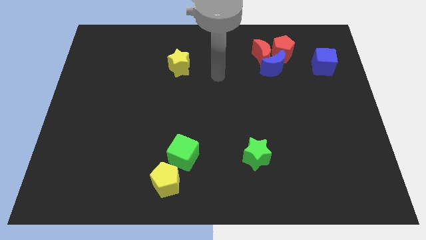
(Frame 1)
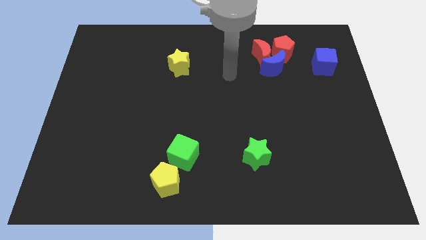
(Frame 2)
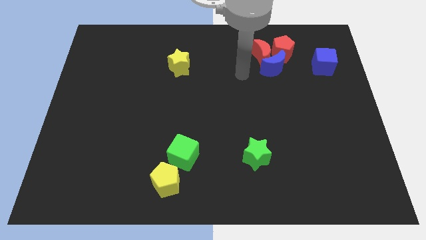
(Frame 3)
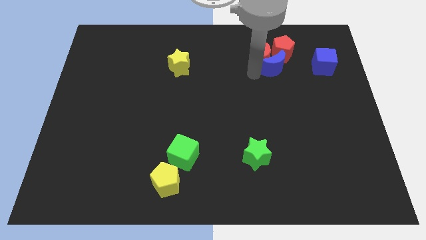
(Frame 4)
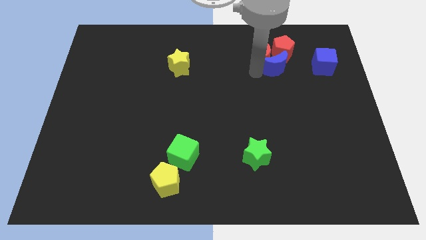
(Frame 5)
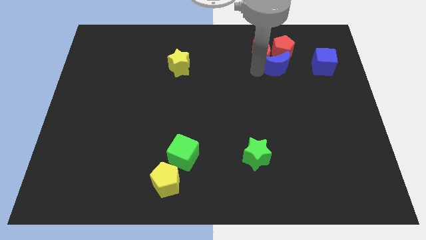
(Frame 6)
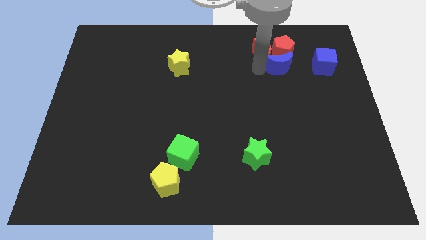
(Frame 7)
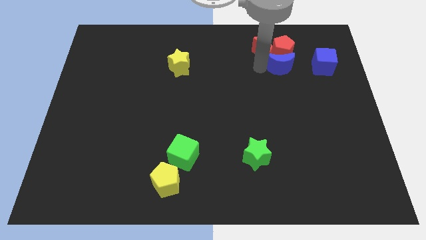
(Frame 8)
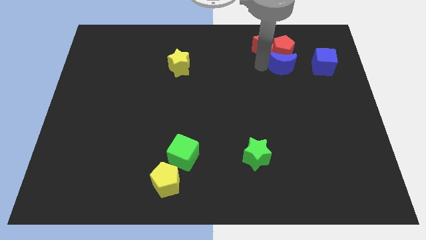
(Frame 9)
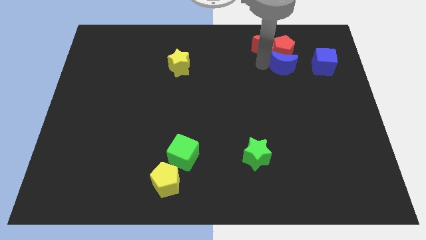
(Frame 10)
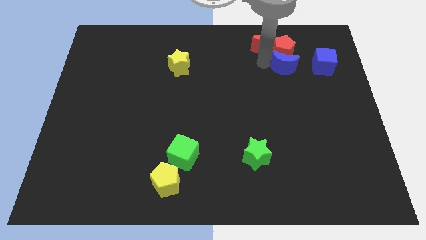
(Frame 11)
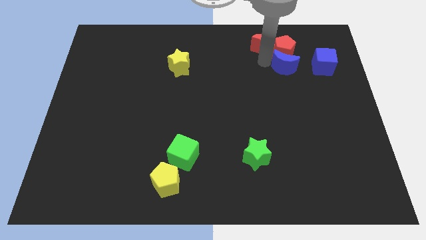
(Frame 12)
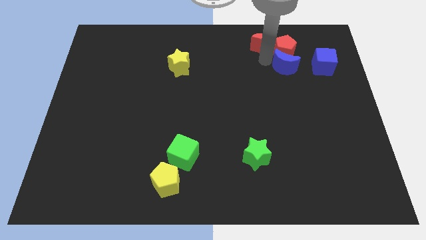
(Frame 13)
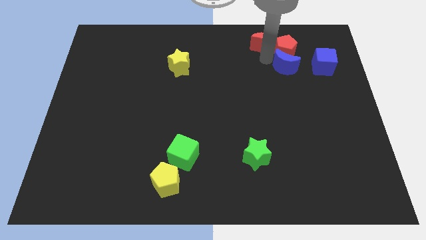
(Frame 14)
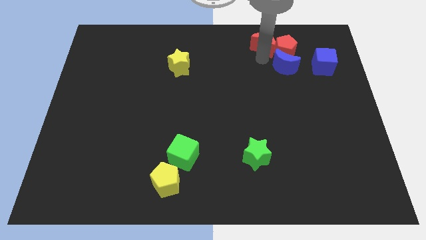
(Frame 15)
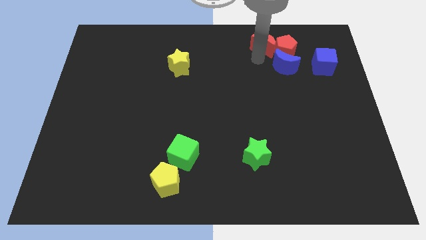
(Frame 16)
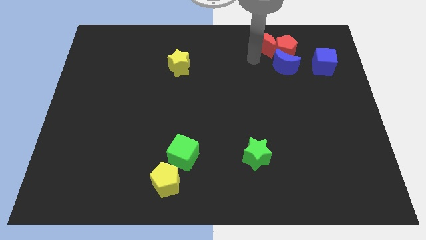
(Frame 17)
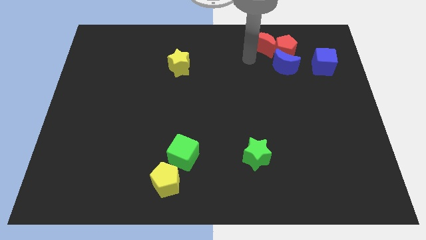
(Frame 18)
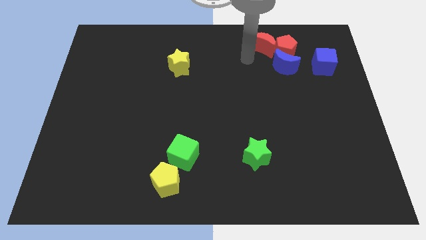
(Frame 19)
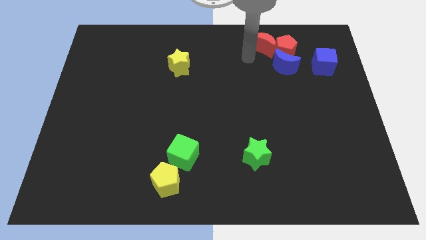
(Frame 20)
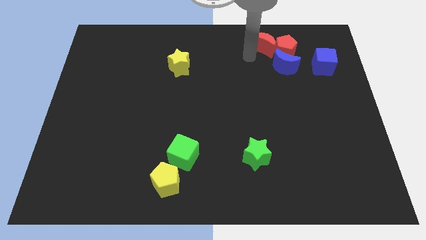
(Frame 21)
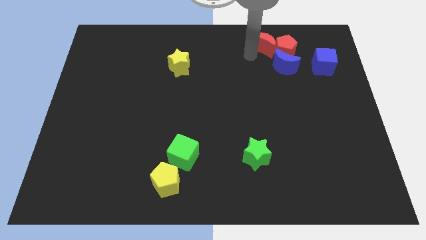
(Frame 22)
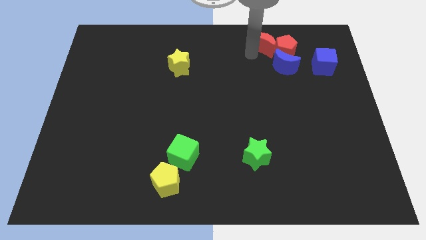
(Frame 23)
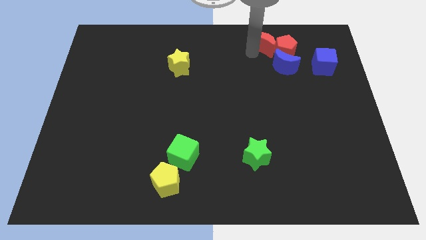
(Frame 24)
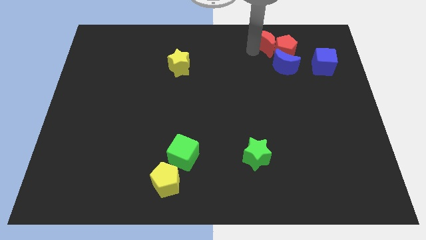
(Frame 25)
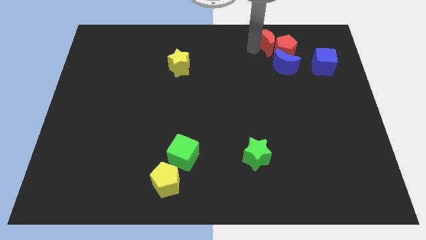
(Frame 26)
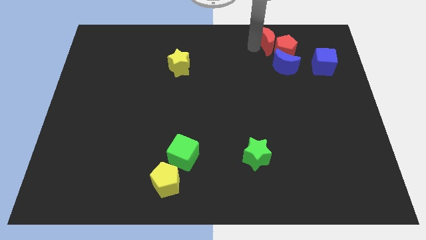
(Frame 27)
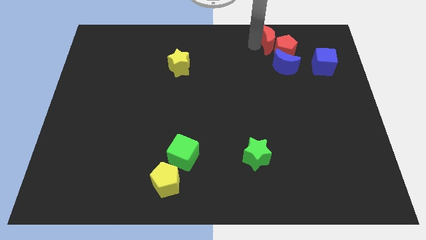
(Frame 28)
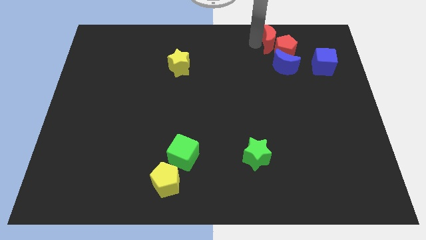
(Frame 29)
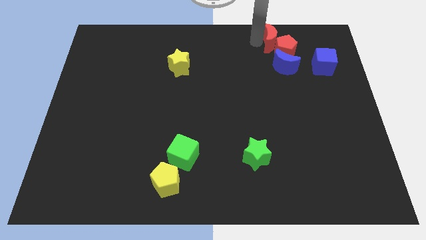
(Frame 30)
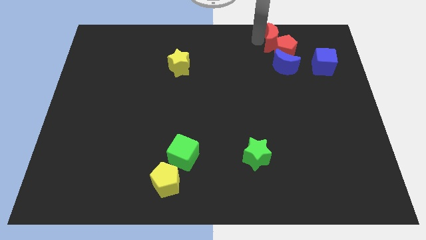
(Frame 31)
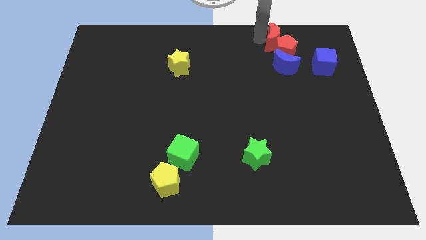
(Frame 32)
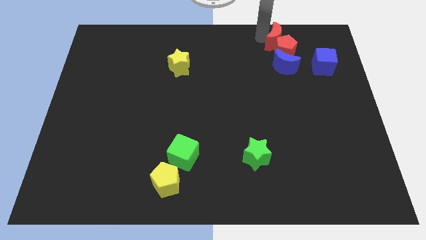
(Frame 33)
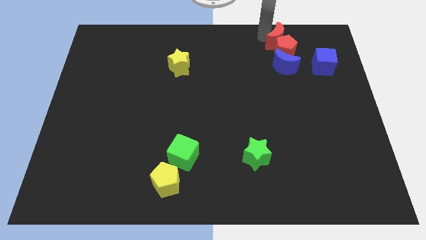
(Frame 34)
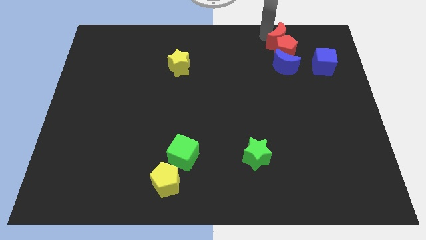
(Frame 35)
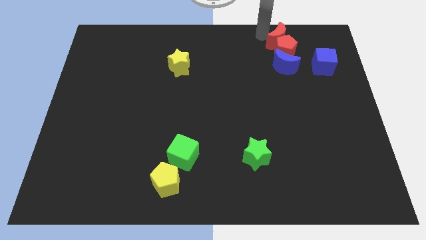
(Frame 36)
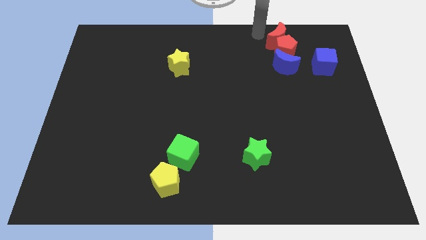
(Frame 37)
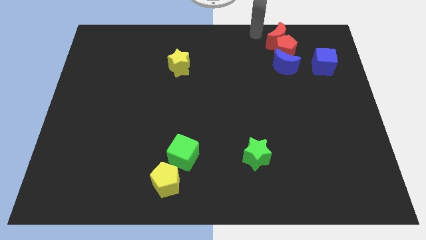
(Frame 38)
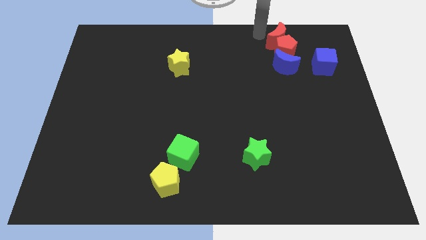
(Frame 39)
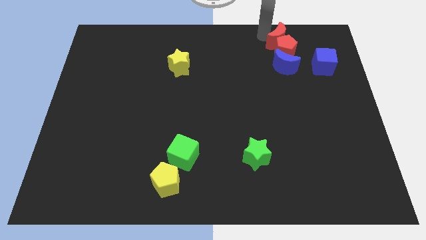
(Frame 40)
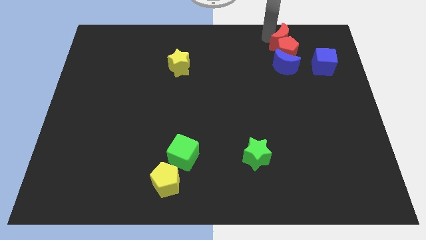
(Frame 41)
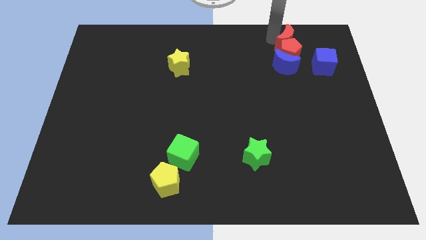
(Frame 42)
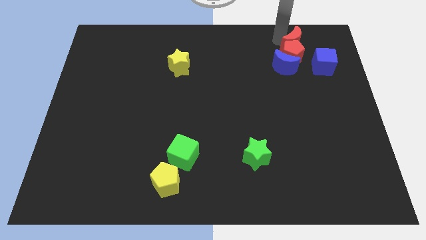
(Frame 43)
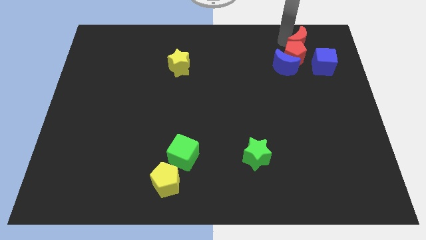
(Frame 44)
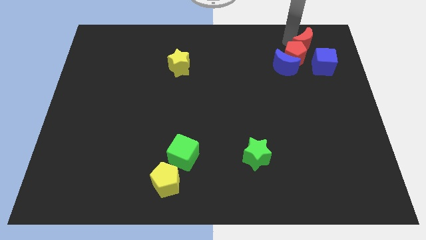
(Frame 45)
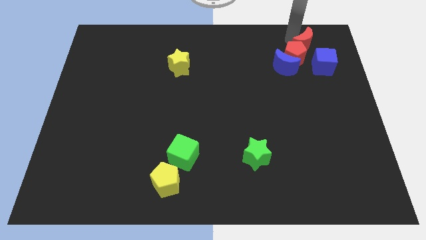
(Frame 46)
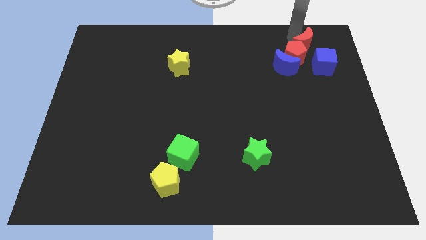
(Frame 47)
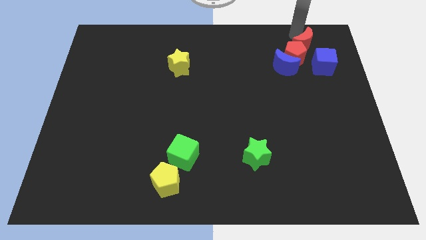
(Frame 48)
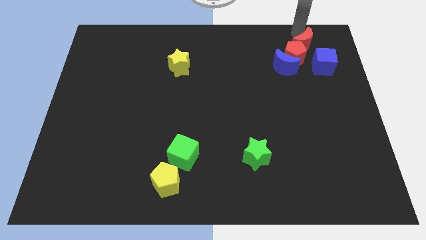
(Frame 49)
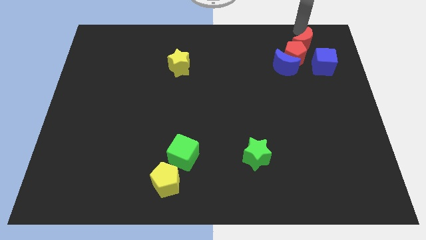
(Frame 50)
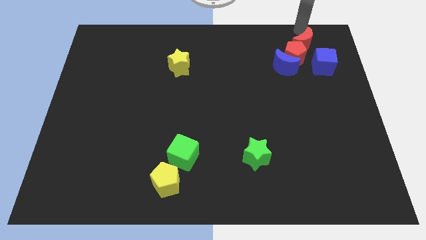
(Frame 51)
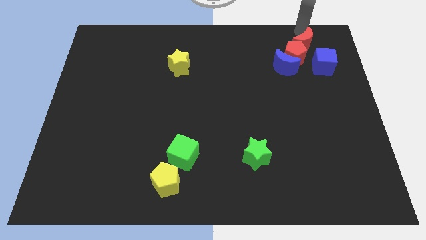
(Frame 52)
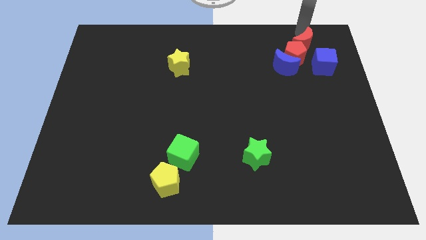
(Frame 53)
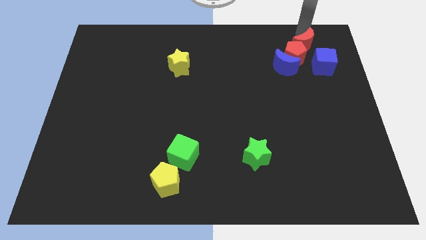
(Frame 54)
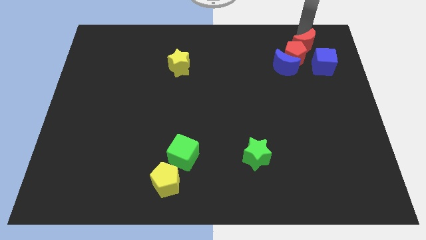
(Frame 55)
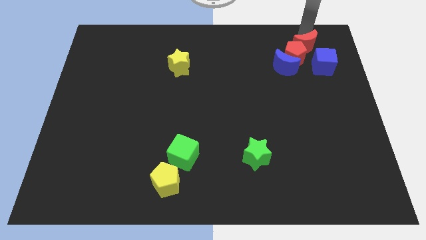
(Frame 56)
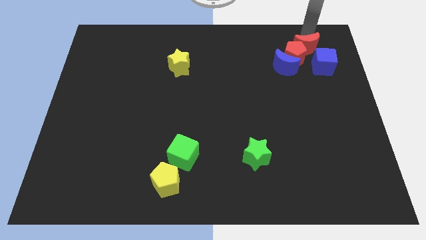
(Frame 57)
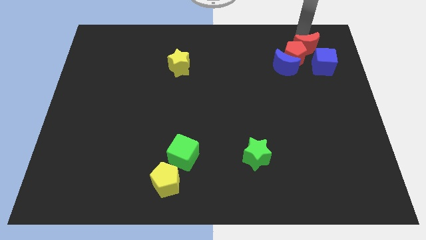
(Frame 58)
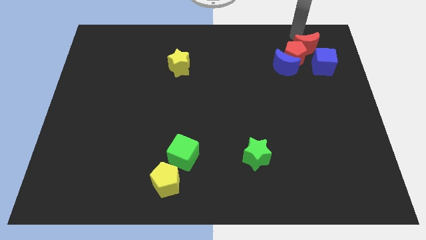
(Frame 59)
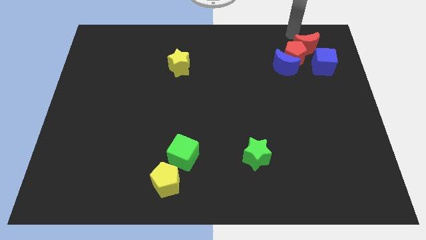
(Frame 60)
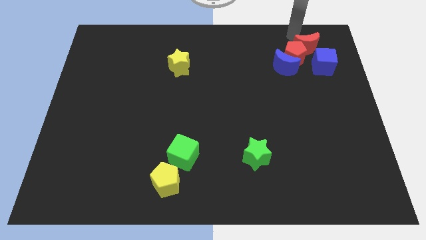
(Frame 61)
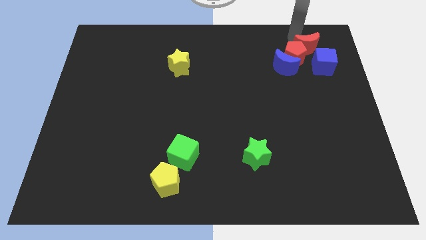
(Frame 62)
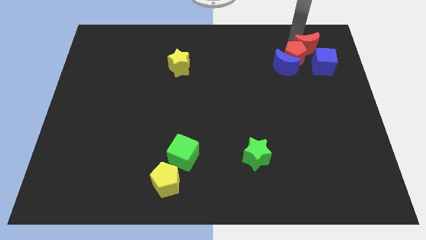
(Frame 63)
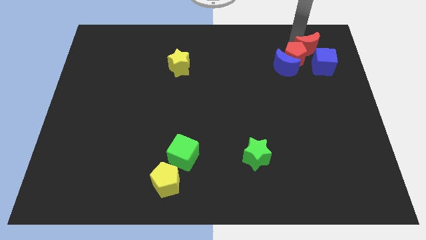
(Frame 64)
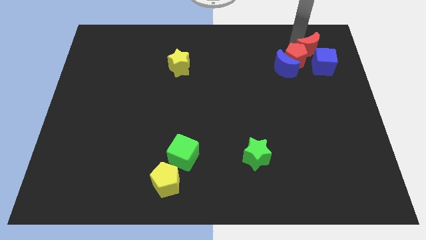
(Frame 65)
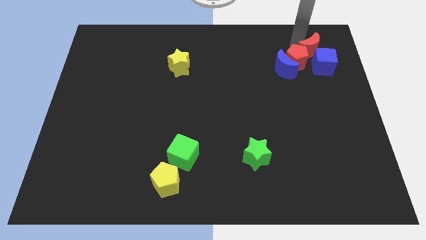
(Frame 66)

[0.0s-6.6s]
slide the red moon close to the blue cube

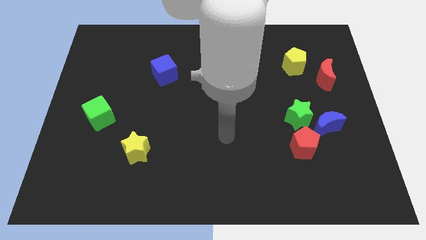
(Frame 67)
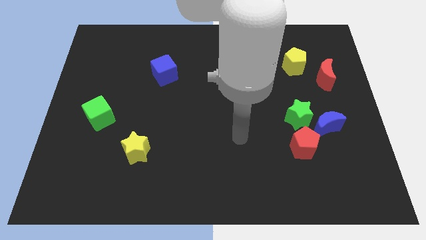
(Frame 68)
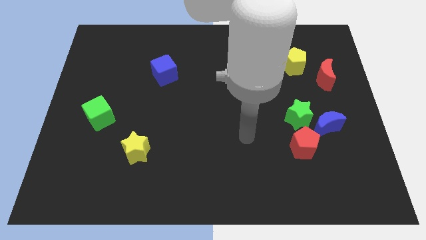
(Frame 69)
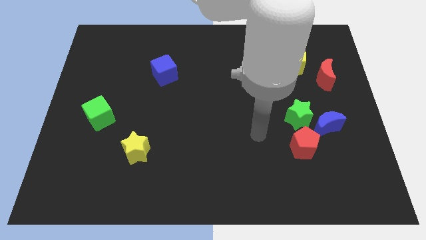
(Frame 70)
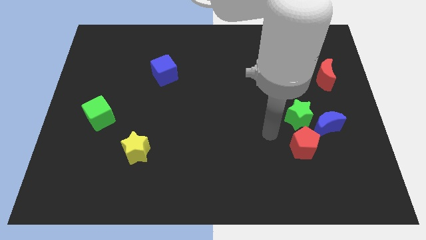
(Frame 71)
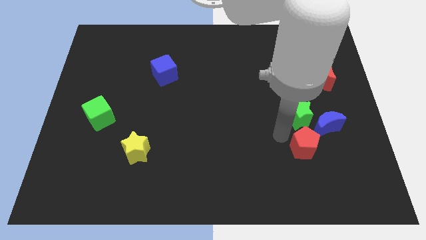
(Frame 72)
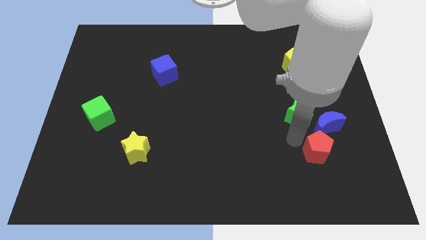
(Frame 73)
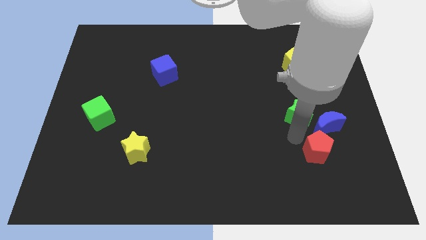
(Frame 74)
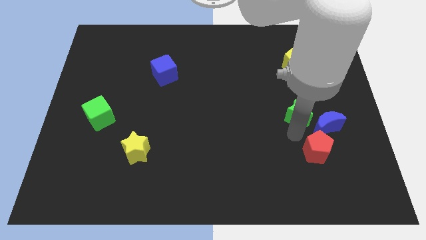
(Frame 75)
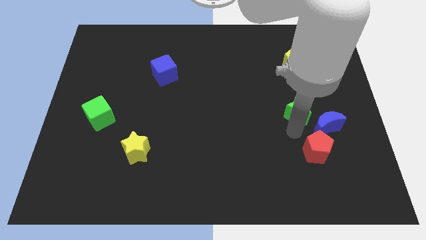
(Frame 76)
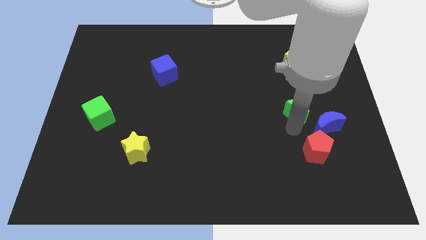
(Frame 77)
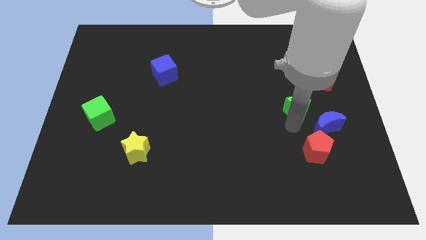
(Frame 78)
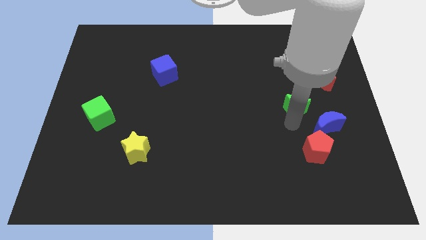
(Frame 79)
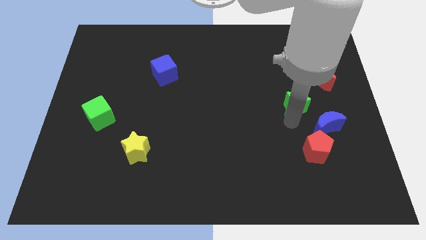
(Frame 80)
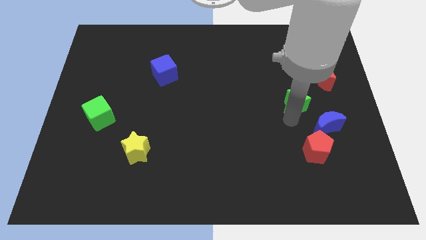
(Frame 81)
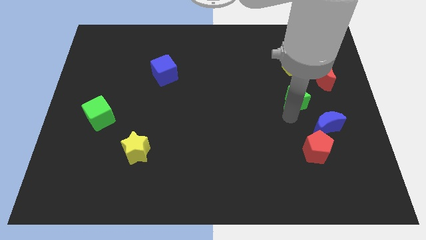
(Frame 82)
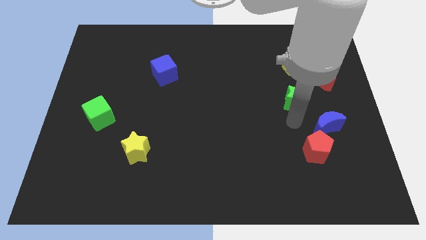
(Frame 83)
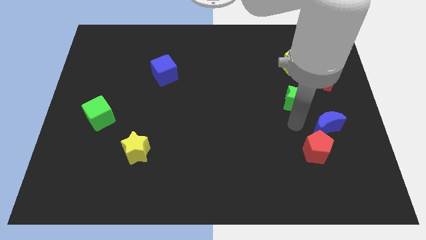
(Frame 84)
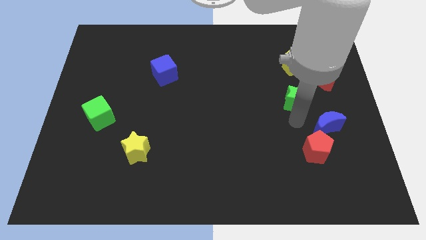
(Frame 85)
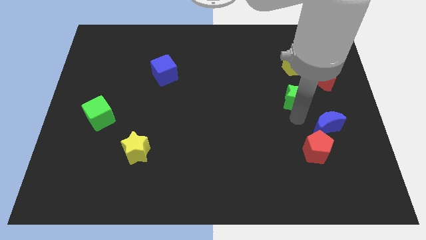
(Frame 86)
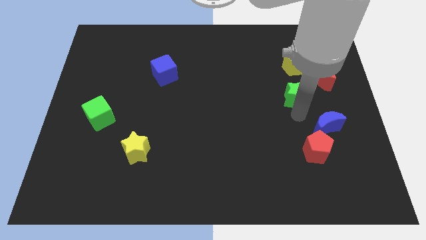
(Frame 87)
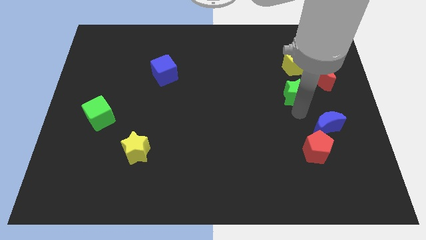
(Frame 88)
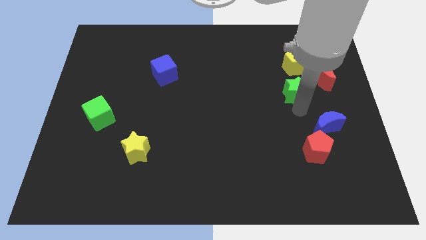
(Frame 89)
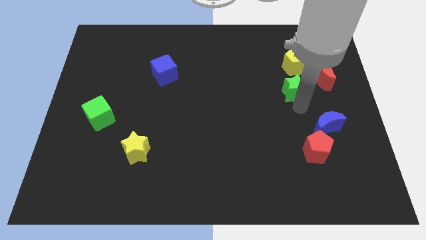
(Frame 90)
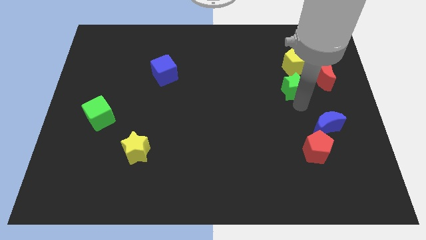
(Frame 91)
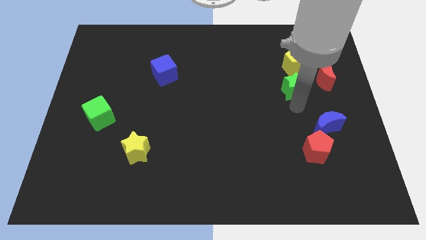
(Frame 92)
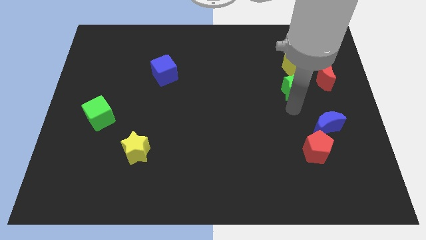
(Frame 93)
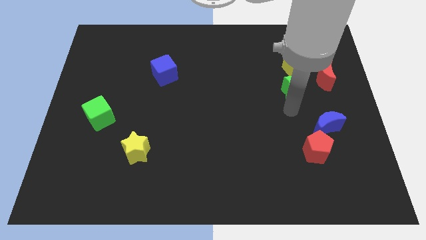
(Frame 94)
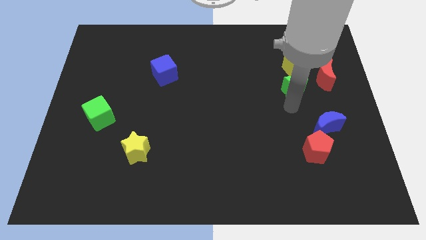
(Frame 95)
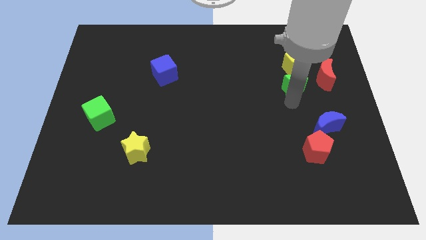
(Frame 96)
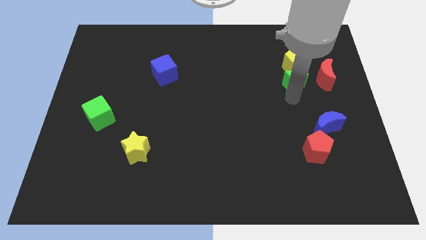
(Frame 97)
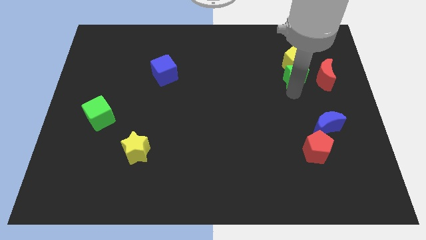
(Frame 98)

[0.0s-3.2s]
push the green star next to the yellow pentagon
